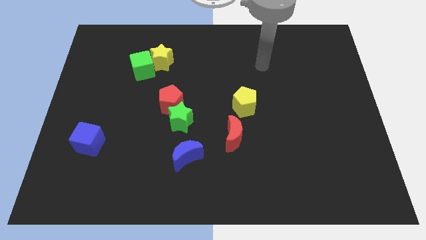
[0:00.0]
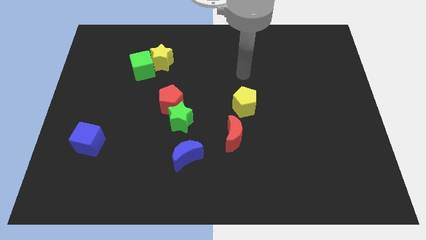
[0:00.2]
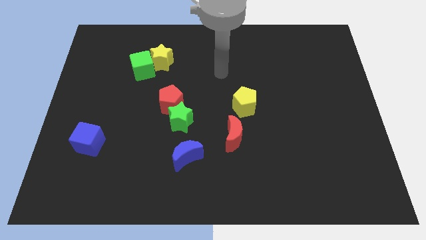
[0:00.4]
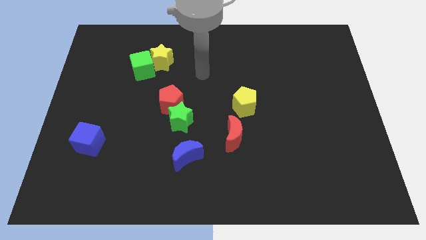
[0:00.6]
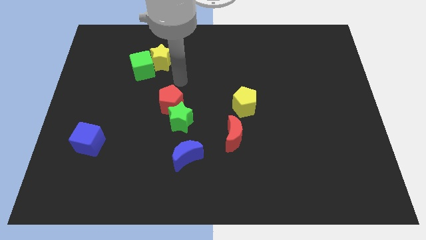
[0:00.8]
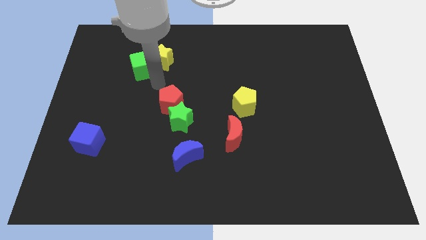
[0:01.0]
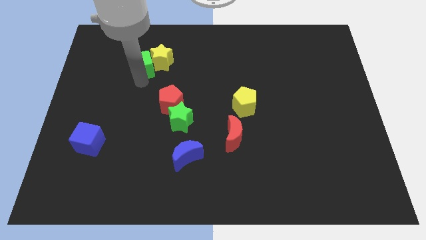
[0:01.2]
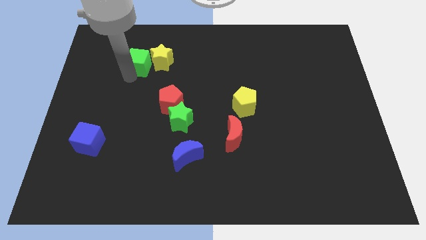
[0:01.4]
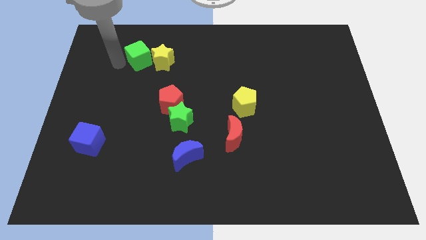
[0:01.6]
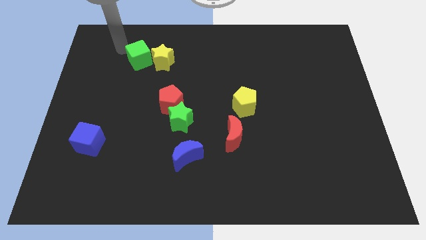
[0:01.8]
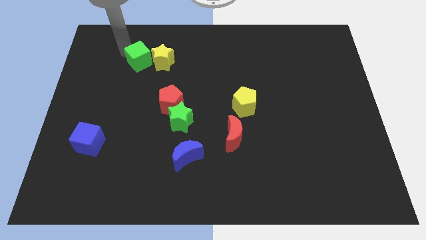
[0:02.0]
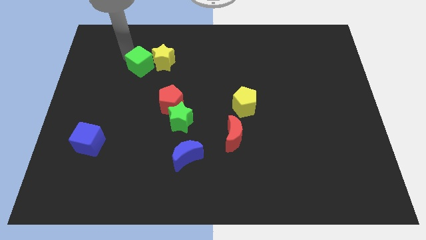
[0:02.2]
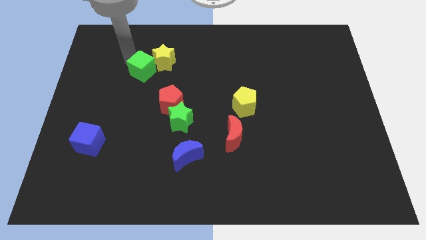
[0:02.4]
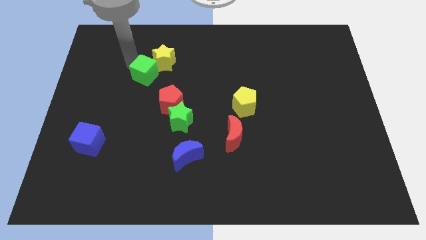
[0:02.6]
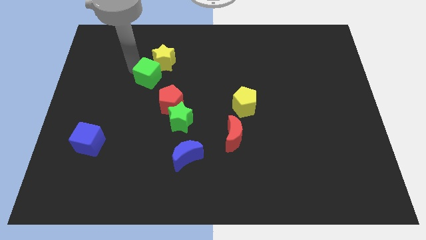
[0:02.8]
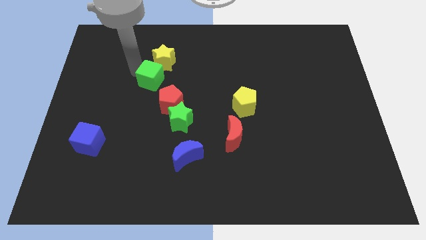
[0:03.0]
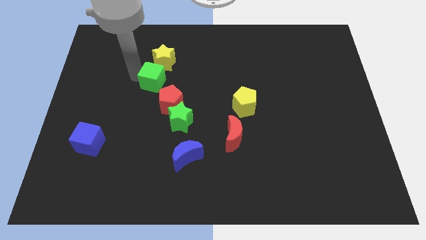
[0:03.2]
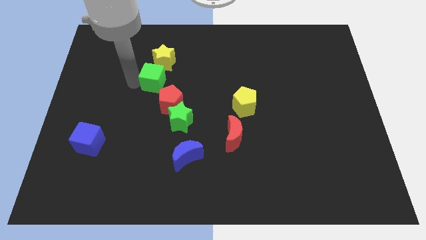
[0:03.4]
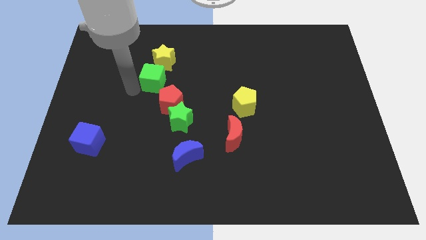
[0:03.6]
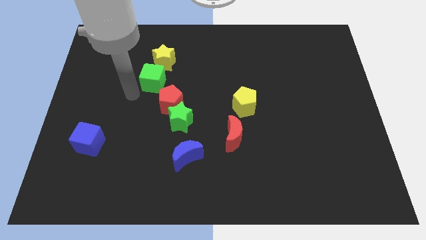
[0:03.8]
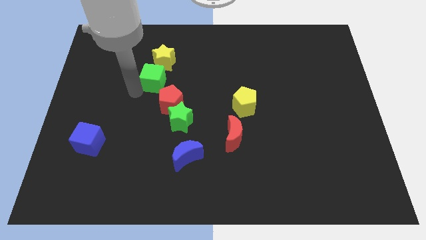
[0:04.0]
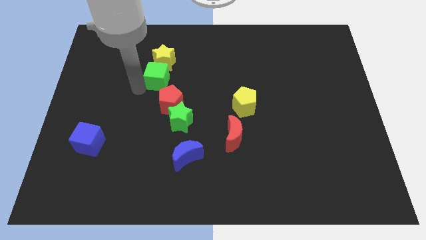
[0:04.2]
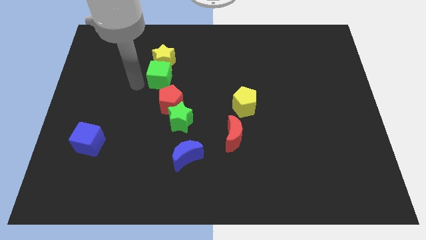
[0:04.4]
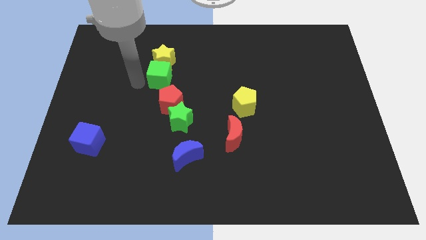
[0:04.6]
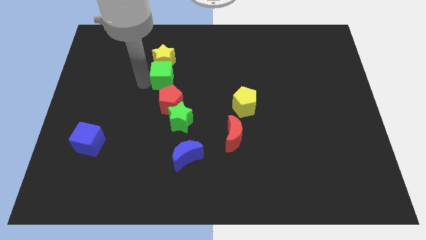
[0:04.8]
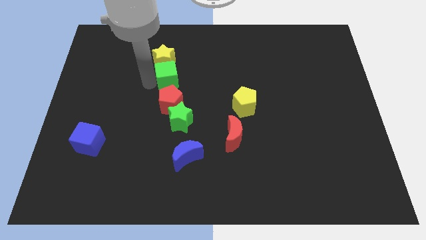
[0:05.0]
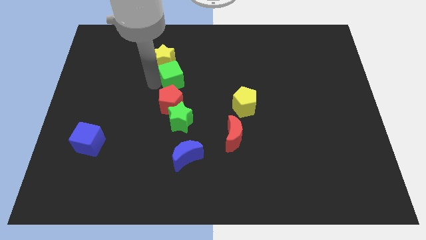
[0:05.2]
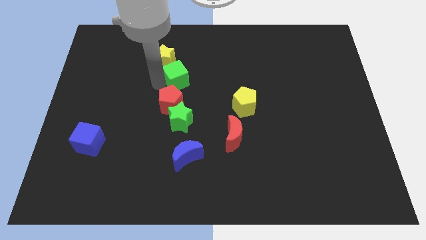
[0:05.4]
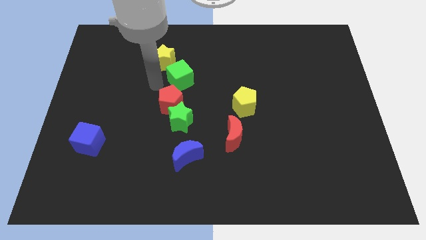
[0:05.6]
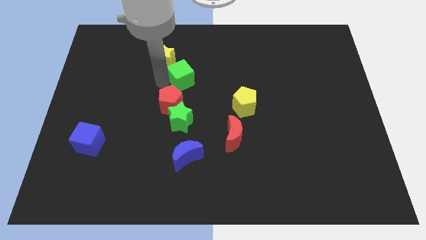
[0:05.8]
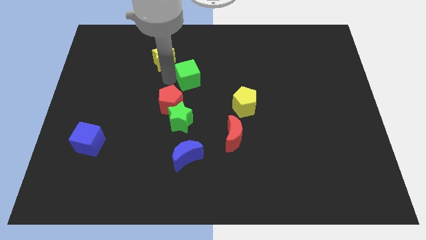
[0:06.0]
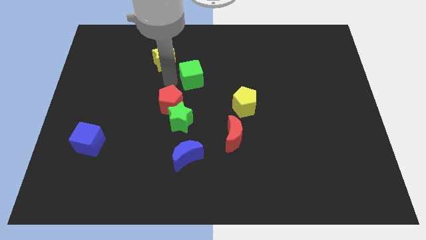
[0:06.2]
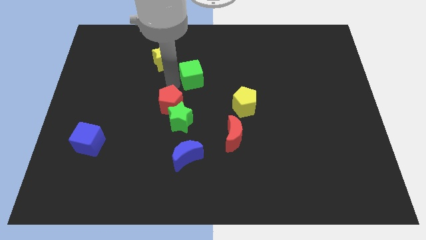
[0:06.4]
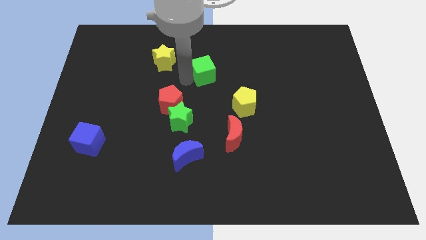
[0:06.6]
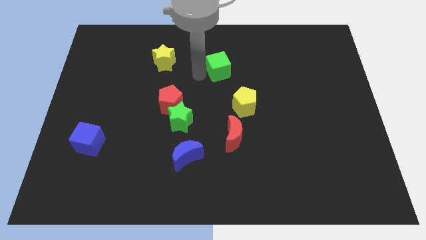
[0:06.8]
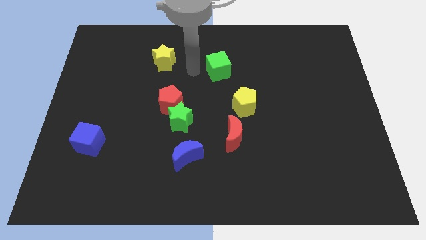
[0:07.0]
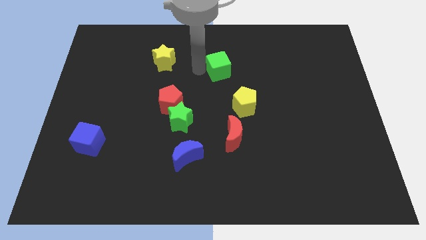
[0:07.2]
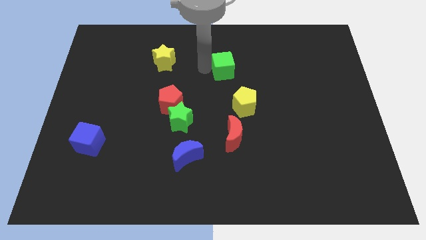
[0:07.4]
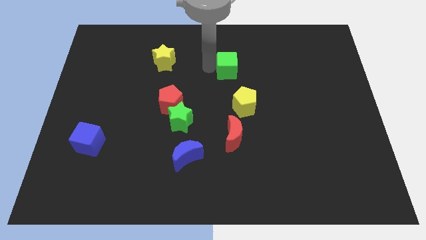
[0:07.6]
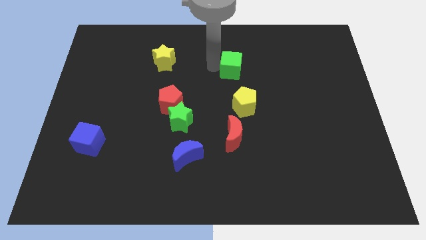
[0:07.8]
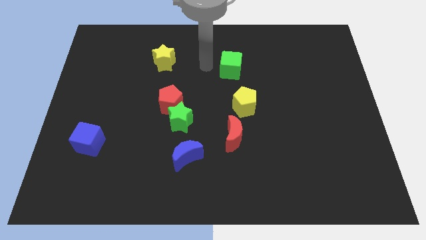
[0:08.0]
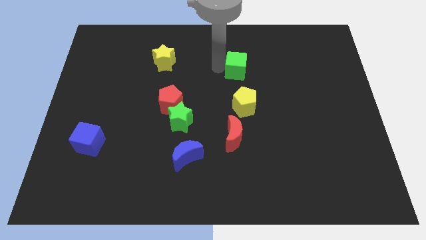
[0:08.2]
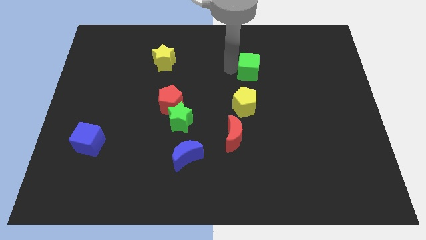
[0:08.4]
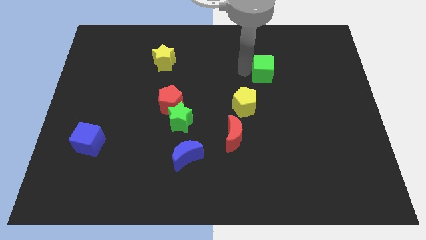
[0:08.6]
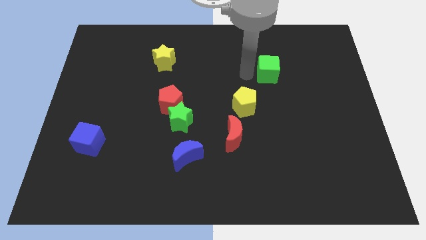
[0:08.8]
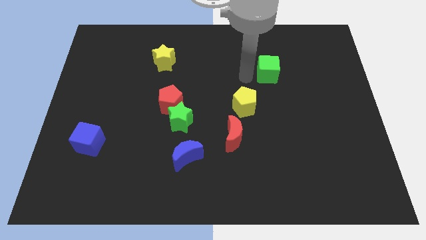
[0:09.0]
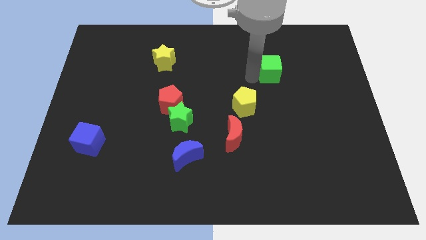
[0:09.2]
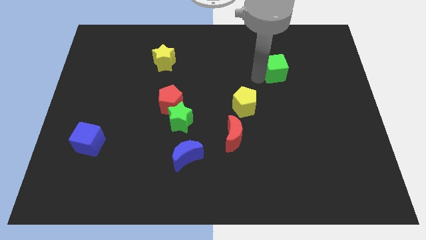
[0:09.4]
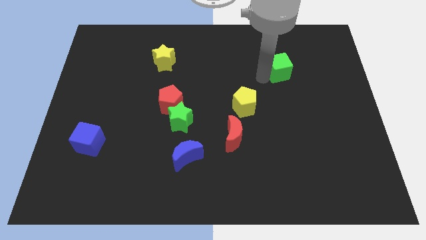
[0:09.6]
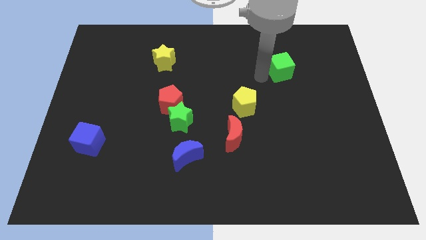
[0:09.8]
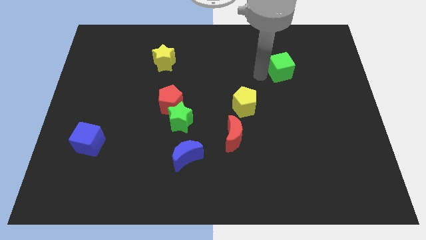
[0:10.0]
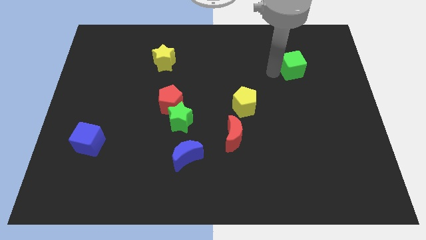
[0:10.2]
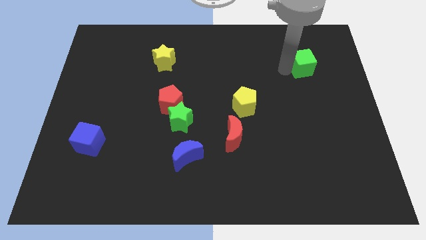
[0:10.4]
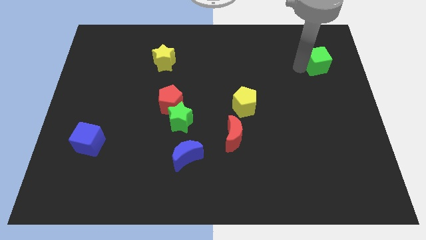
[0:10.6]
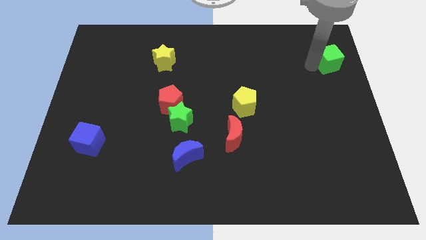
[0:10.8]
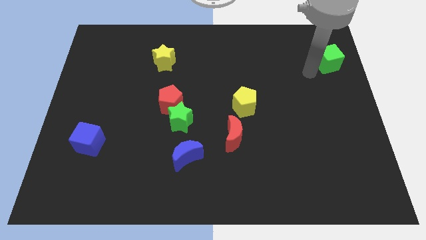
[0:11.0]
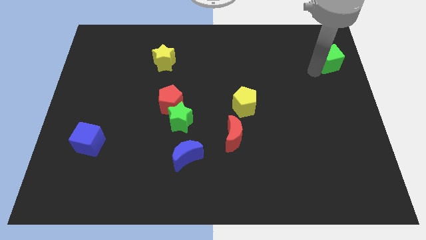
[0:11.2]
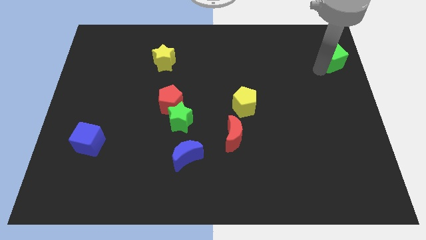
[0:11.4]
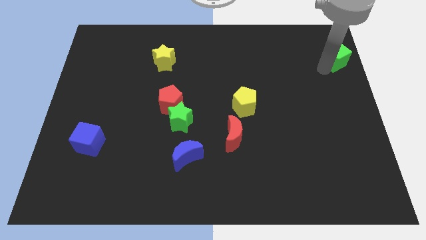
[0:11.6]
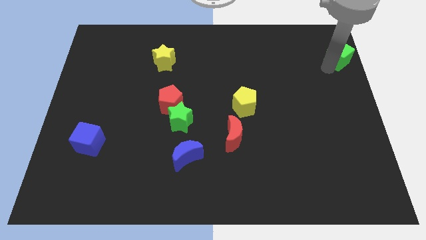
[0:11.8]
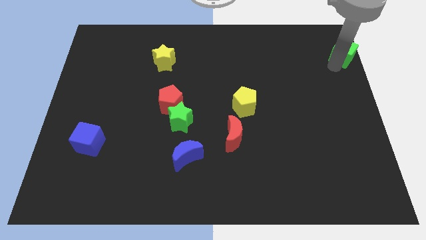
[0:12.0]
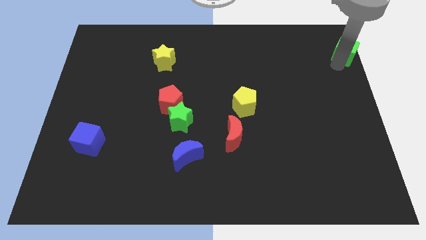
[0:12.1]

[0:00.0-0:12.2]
push the green cube to the top right of the board

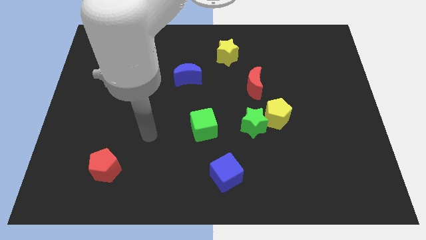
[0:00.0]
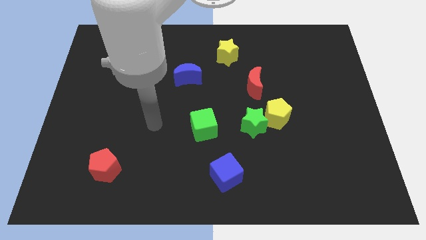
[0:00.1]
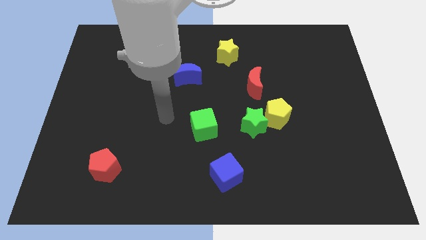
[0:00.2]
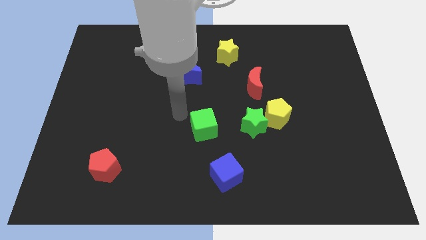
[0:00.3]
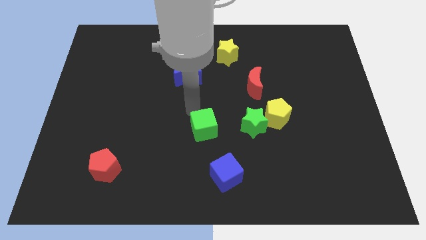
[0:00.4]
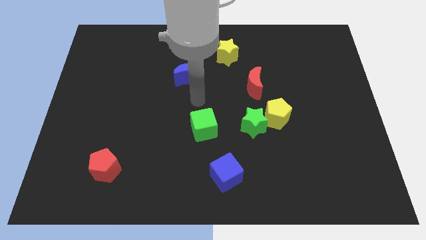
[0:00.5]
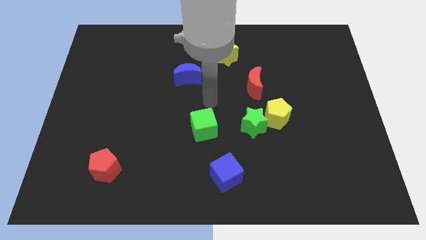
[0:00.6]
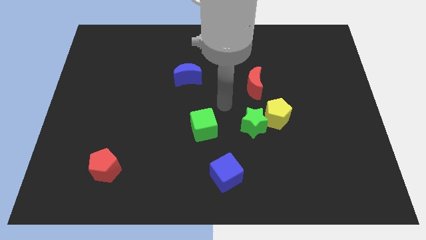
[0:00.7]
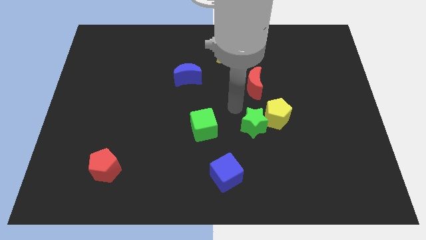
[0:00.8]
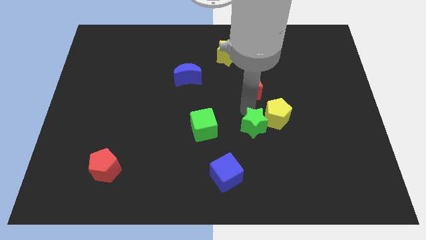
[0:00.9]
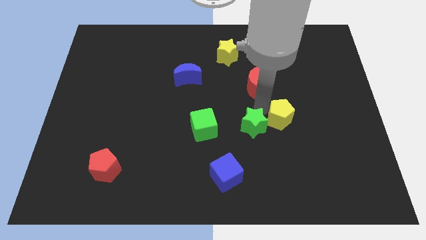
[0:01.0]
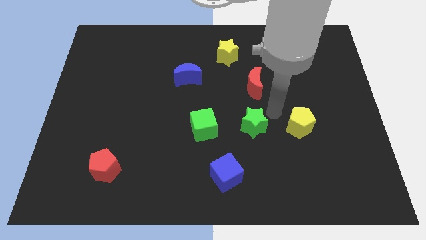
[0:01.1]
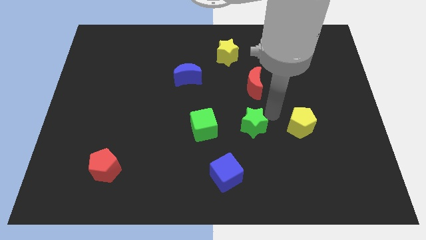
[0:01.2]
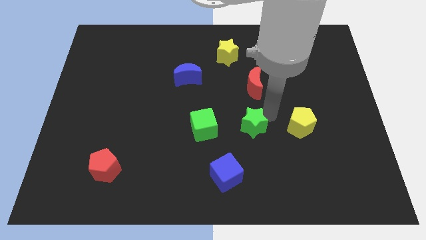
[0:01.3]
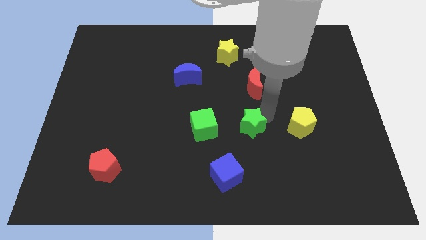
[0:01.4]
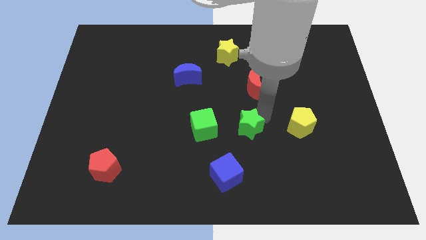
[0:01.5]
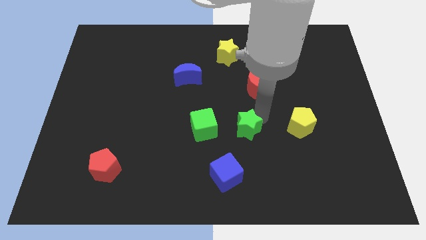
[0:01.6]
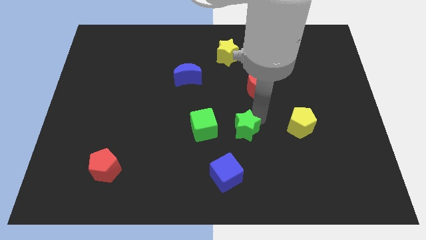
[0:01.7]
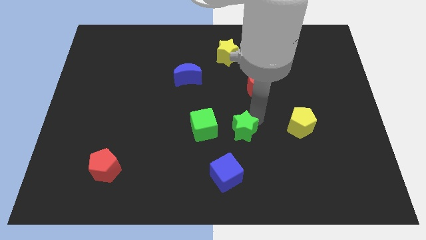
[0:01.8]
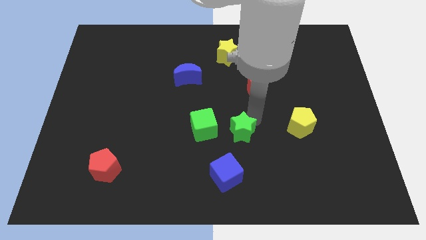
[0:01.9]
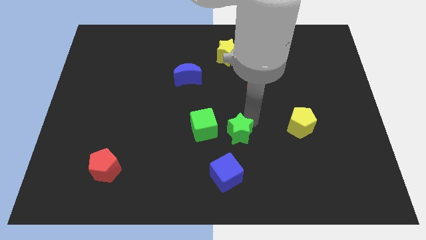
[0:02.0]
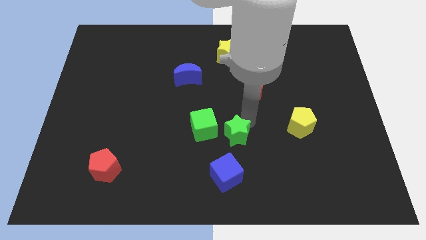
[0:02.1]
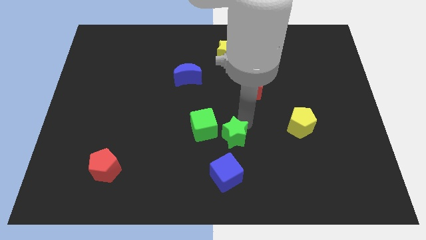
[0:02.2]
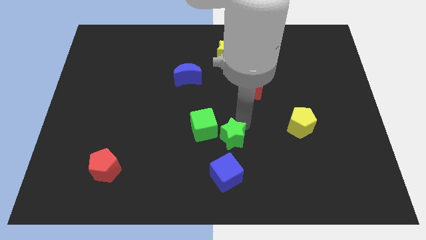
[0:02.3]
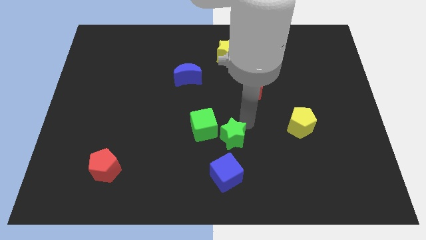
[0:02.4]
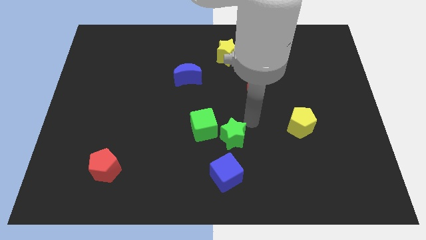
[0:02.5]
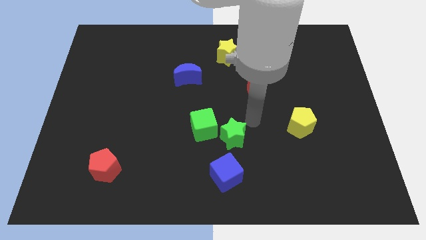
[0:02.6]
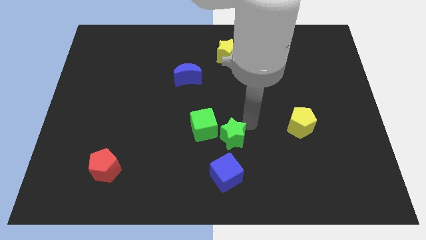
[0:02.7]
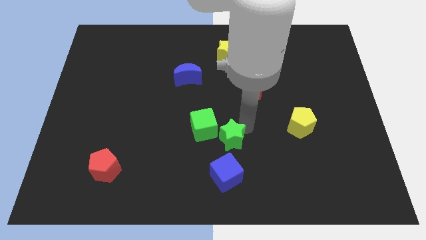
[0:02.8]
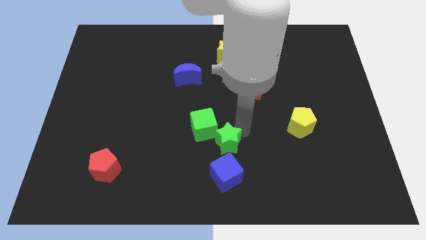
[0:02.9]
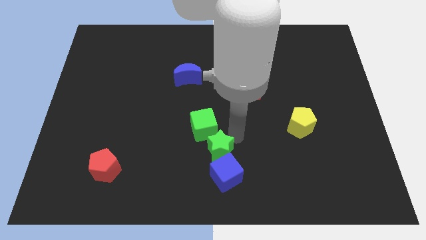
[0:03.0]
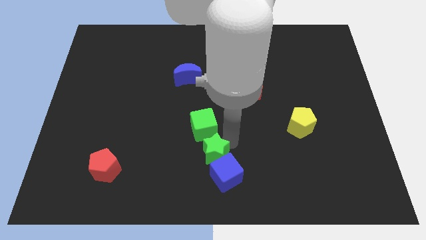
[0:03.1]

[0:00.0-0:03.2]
push the green star to the bottom
